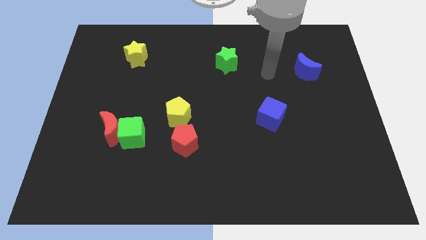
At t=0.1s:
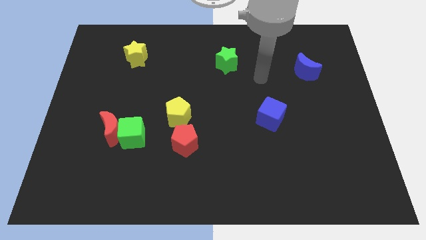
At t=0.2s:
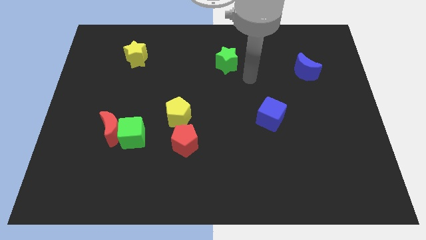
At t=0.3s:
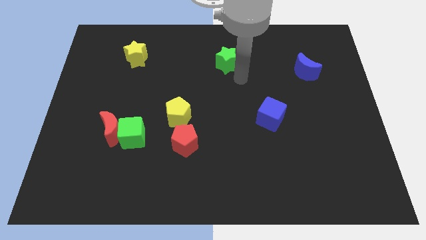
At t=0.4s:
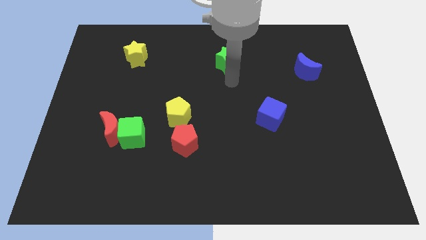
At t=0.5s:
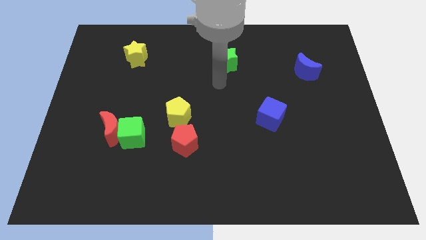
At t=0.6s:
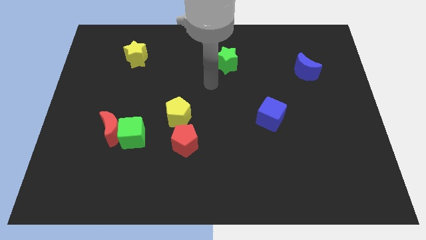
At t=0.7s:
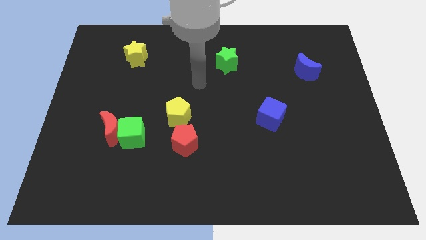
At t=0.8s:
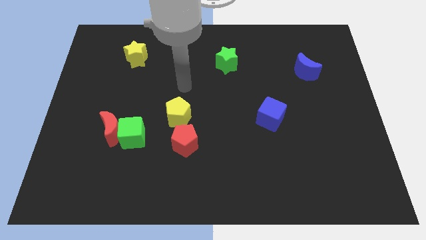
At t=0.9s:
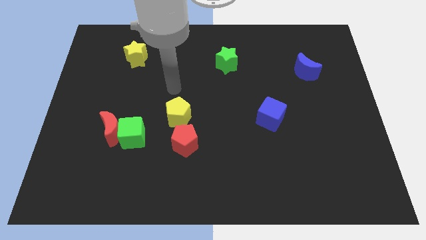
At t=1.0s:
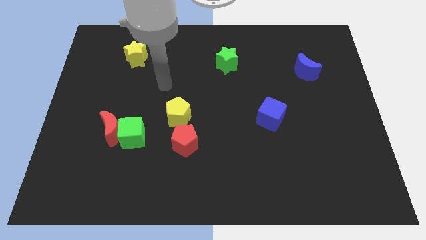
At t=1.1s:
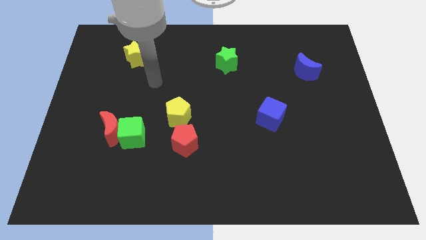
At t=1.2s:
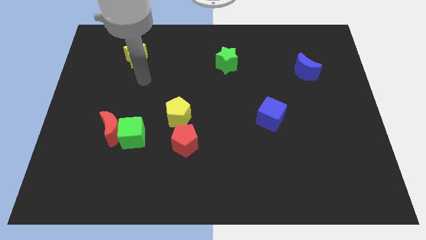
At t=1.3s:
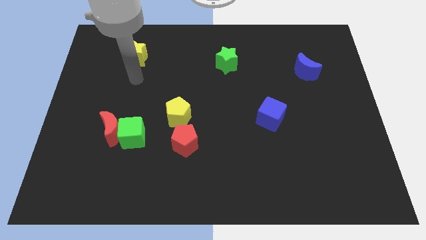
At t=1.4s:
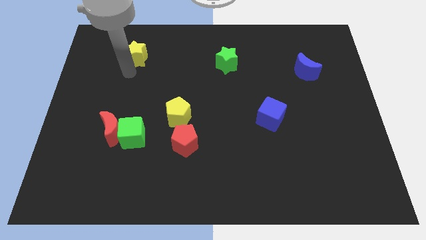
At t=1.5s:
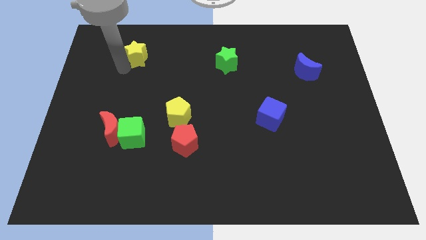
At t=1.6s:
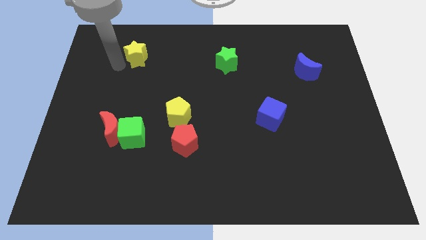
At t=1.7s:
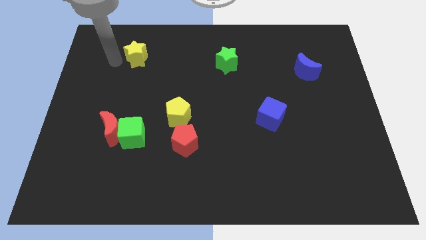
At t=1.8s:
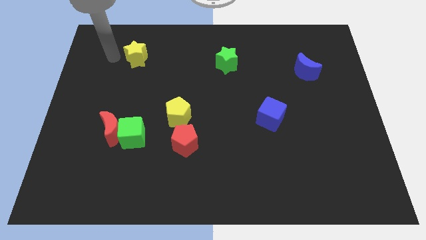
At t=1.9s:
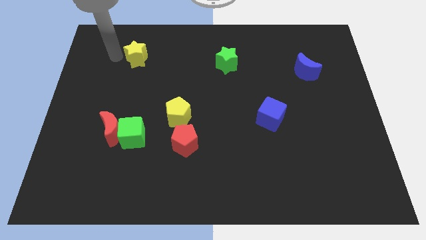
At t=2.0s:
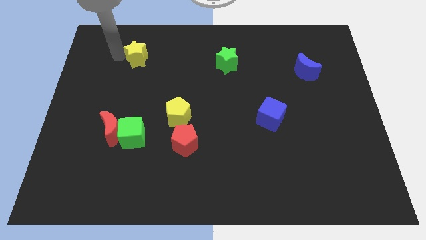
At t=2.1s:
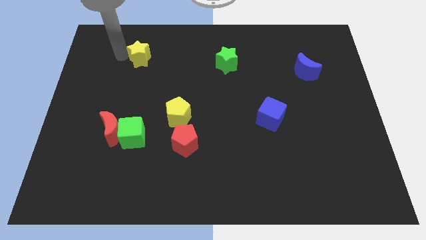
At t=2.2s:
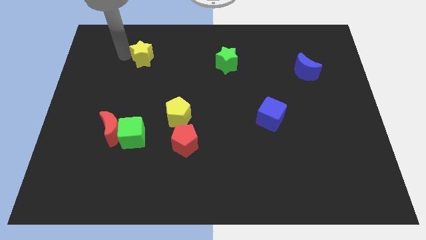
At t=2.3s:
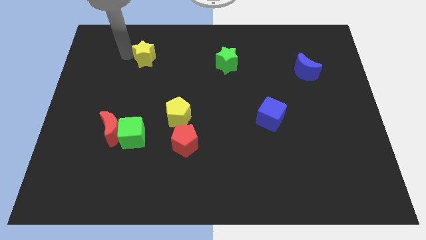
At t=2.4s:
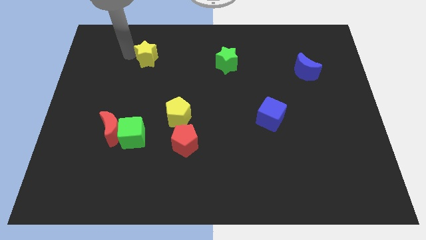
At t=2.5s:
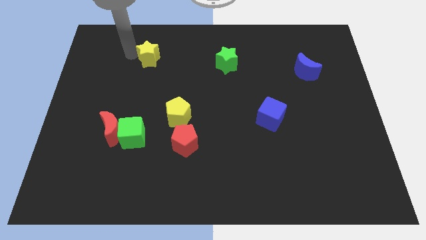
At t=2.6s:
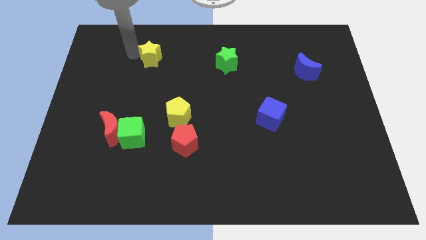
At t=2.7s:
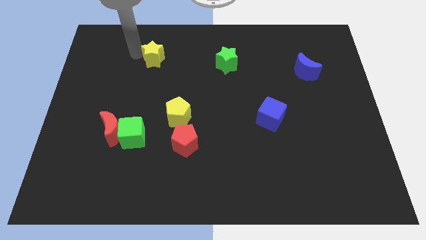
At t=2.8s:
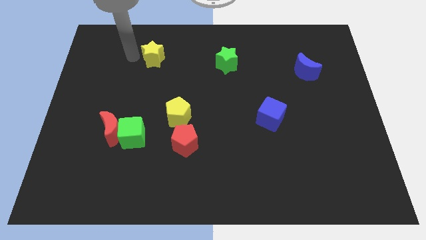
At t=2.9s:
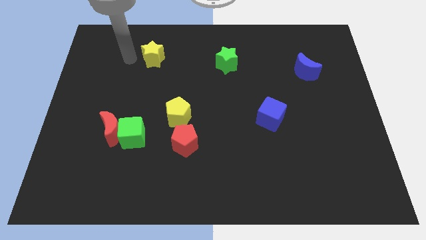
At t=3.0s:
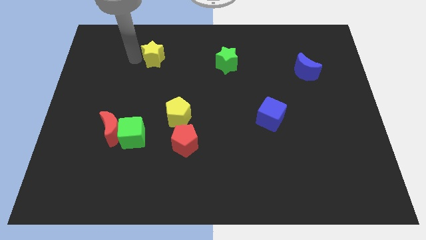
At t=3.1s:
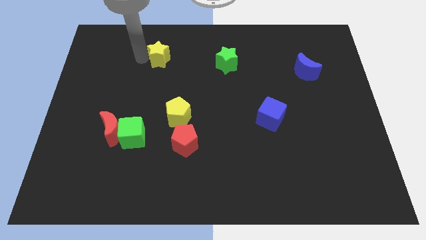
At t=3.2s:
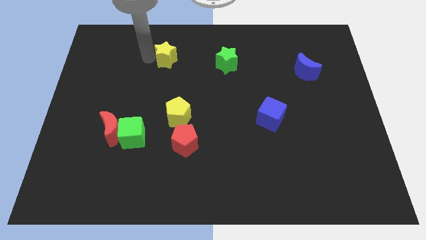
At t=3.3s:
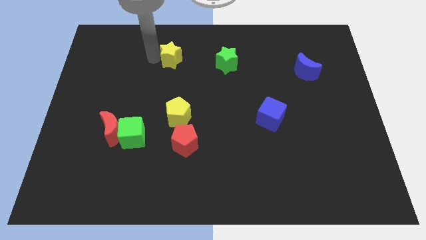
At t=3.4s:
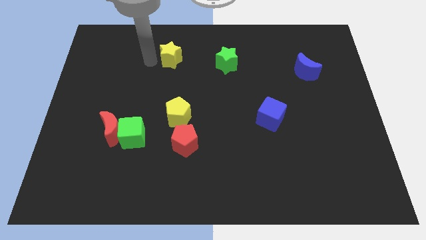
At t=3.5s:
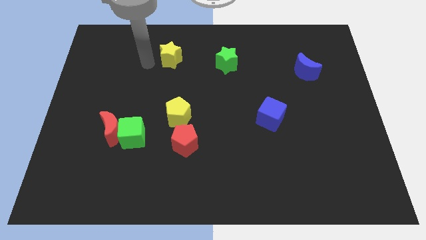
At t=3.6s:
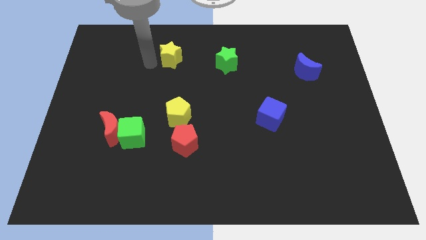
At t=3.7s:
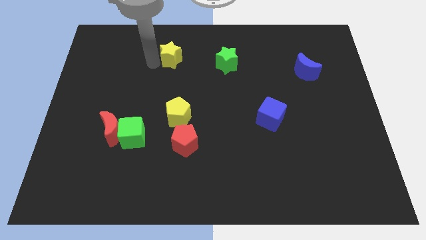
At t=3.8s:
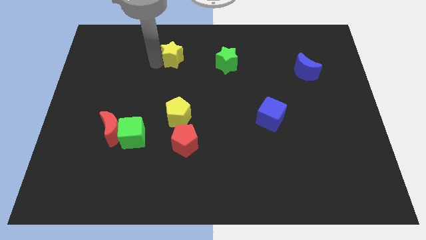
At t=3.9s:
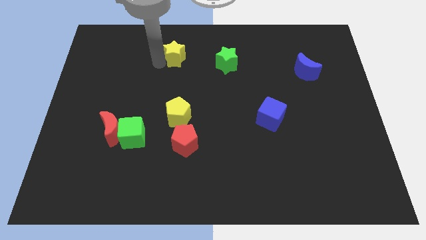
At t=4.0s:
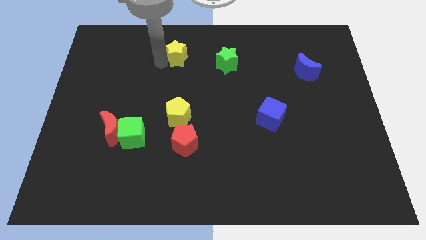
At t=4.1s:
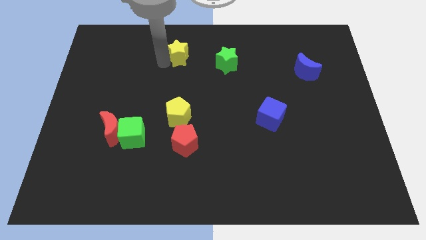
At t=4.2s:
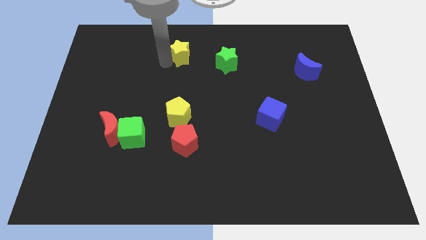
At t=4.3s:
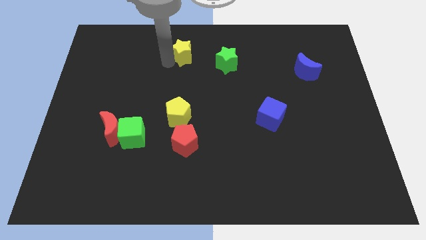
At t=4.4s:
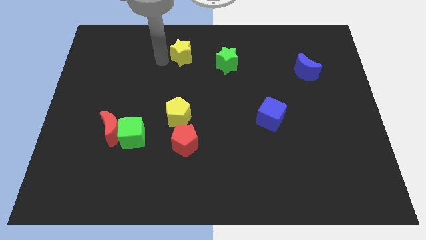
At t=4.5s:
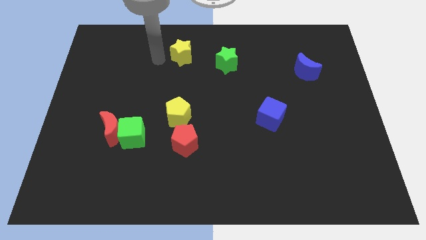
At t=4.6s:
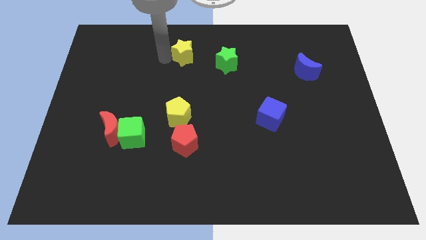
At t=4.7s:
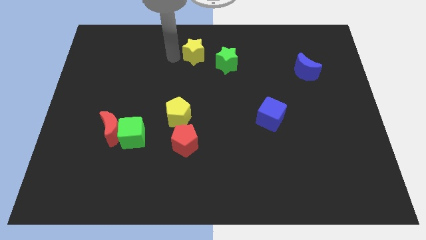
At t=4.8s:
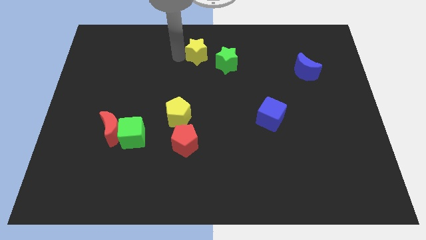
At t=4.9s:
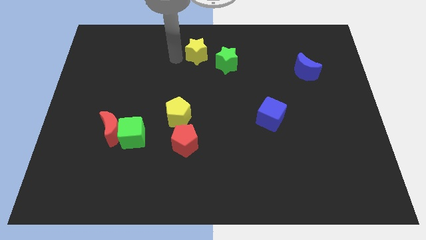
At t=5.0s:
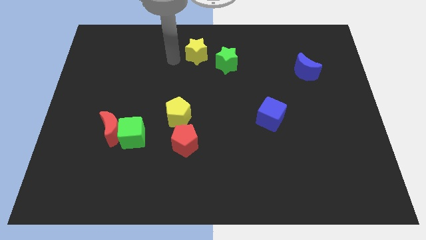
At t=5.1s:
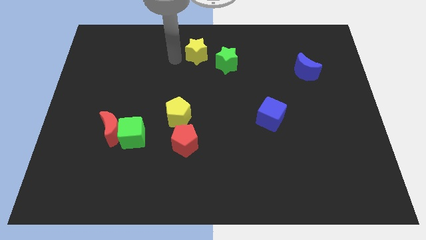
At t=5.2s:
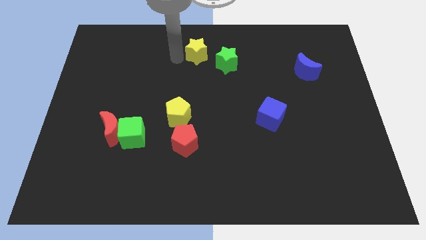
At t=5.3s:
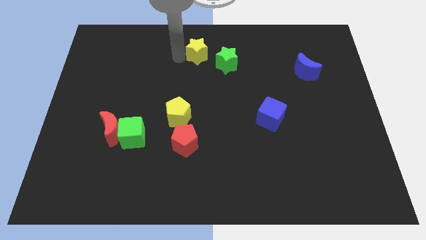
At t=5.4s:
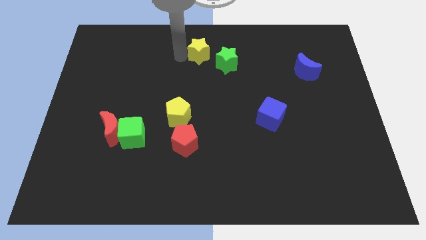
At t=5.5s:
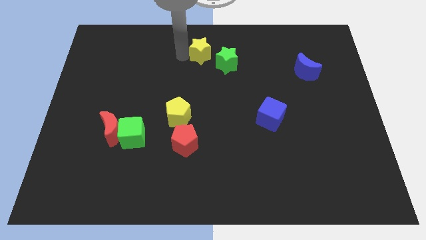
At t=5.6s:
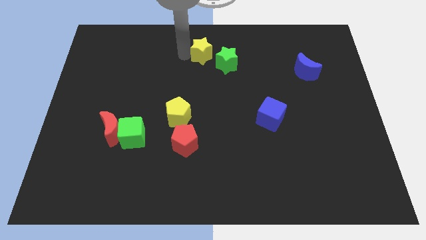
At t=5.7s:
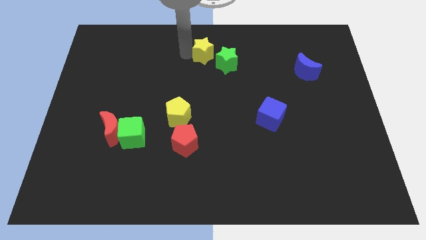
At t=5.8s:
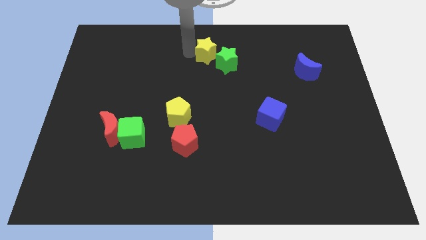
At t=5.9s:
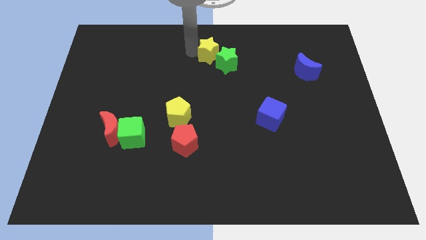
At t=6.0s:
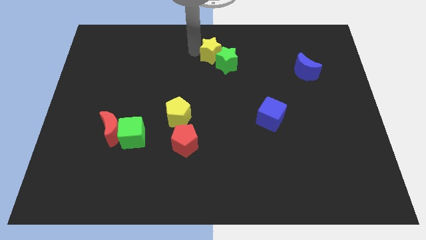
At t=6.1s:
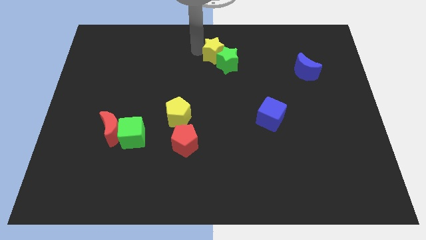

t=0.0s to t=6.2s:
slide the yellow star to the right

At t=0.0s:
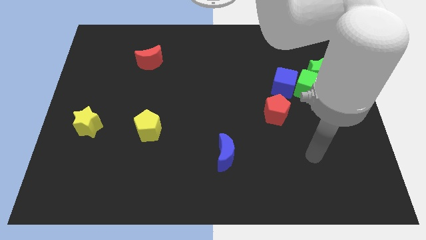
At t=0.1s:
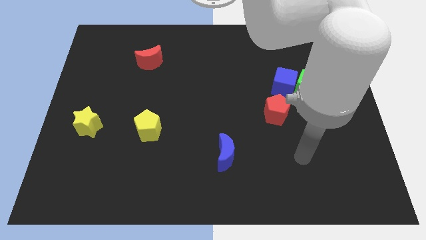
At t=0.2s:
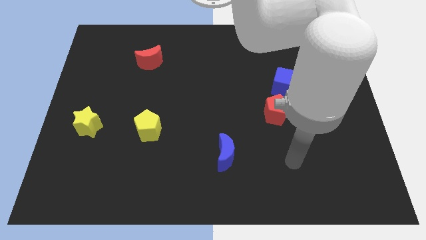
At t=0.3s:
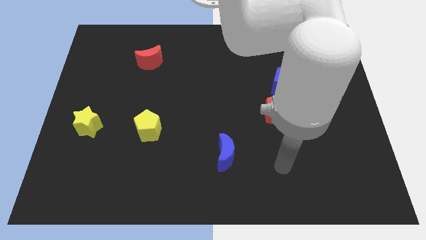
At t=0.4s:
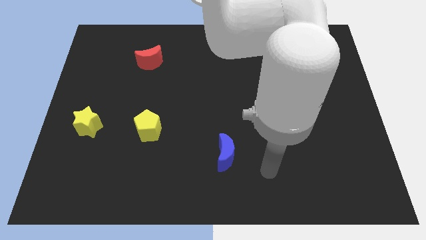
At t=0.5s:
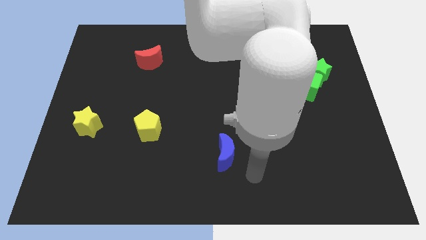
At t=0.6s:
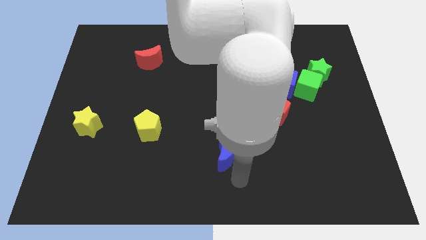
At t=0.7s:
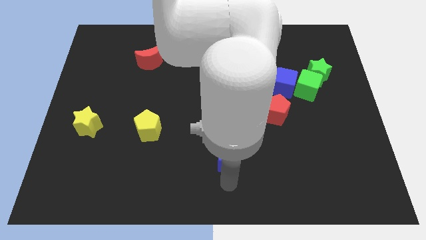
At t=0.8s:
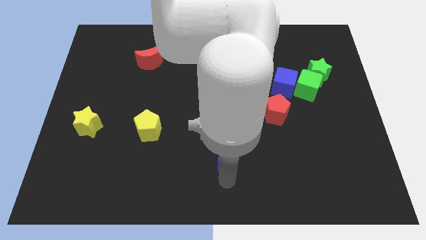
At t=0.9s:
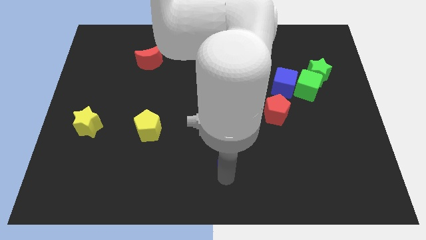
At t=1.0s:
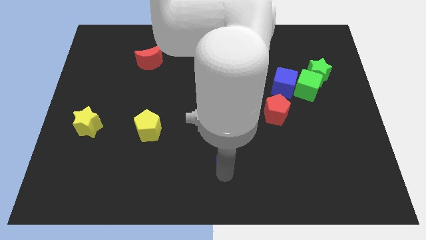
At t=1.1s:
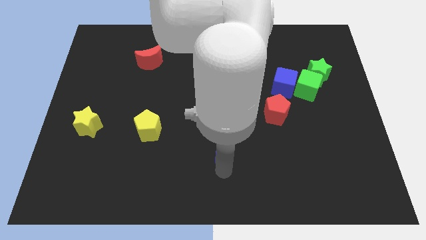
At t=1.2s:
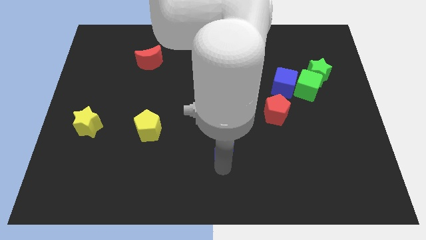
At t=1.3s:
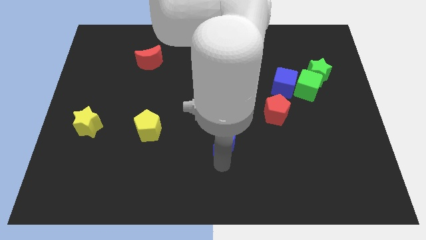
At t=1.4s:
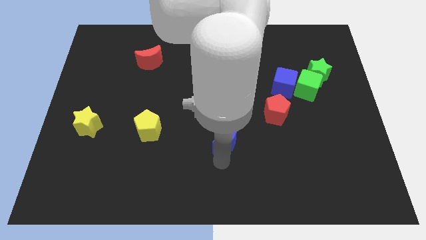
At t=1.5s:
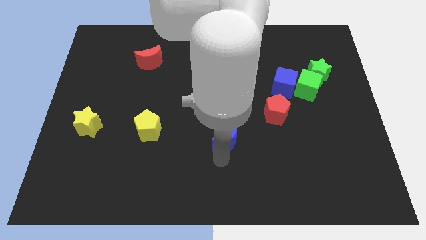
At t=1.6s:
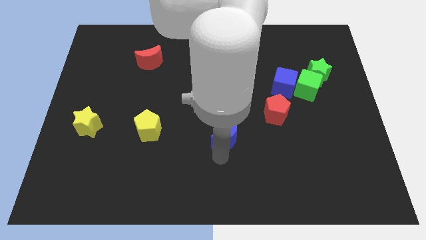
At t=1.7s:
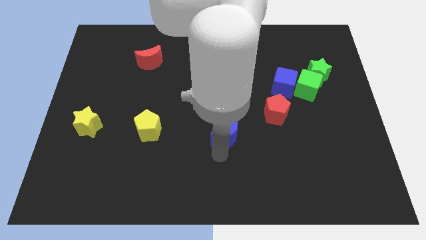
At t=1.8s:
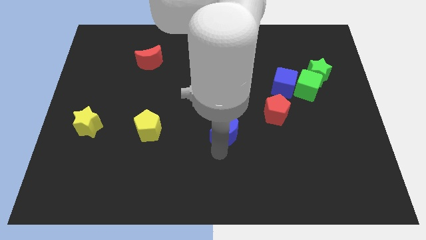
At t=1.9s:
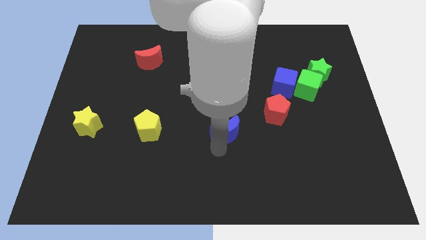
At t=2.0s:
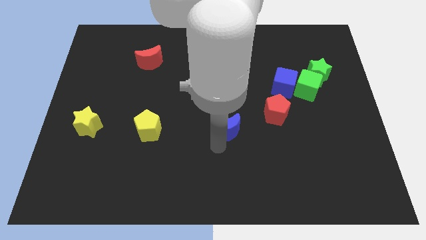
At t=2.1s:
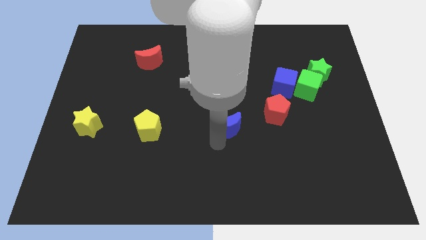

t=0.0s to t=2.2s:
move the blue moon up a little bit
